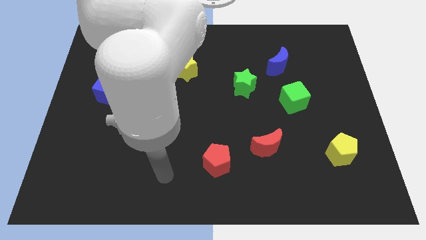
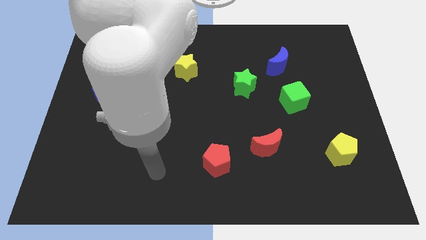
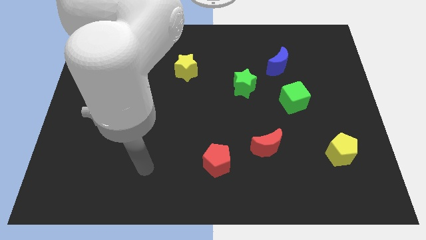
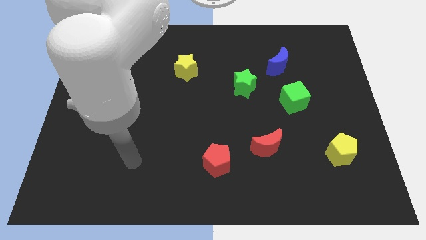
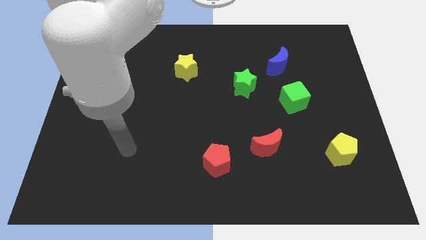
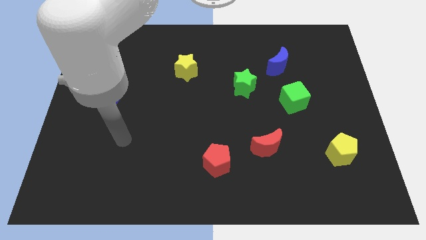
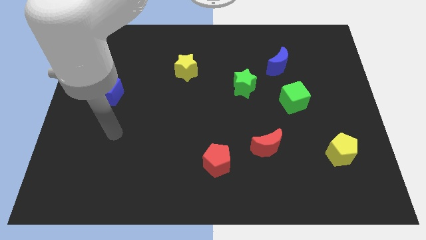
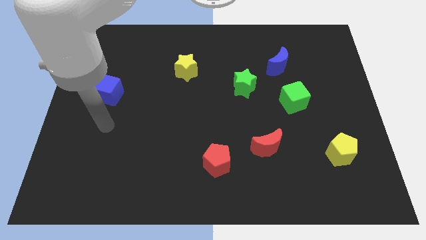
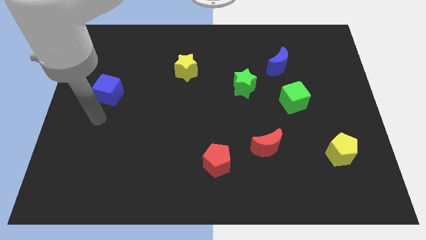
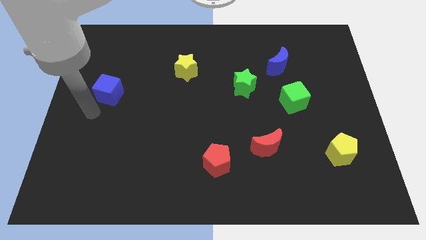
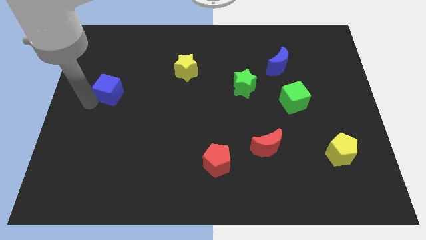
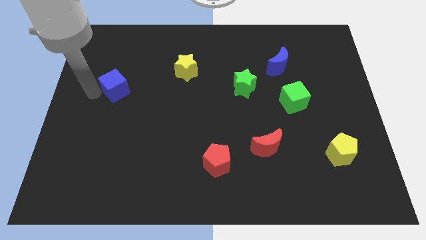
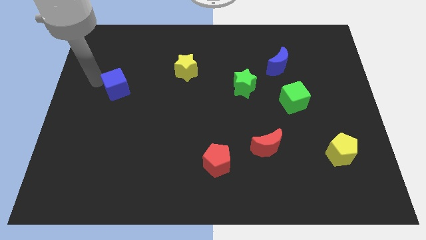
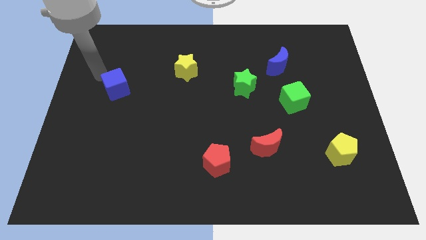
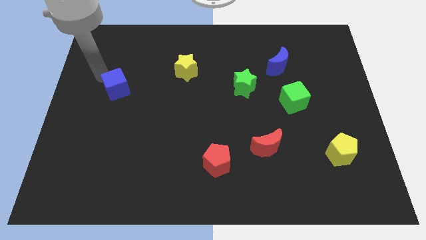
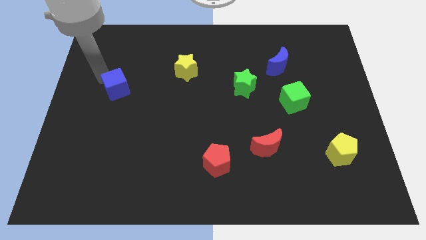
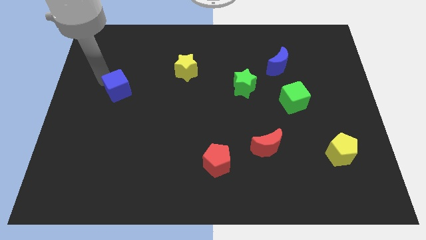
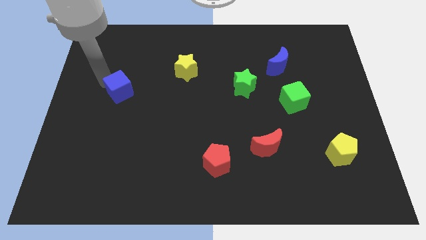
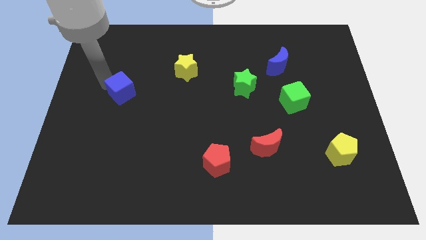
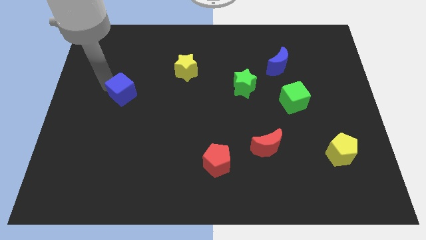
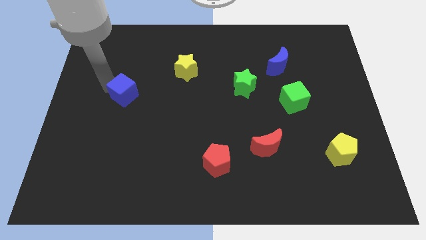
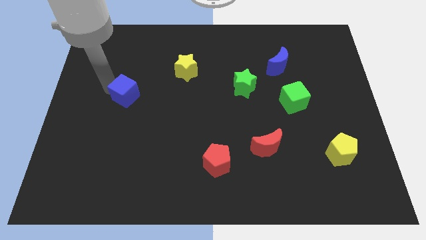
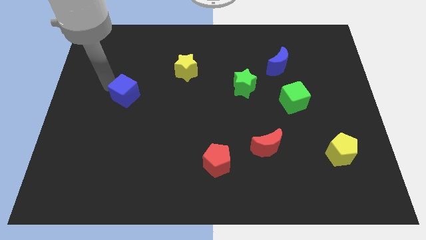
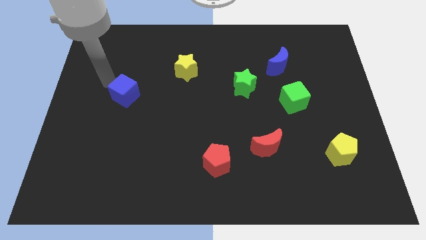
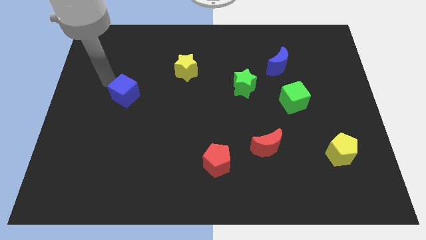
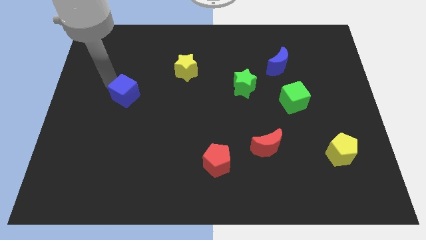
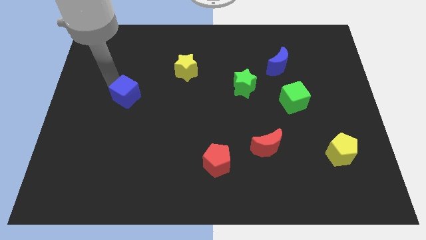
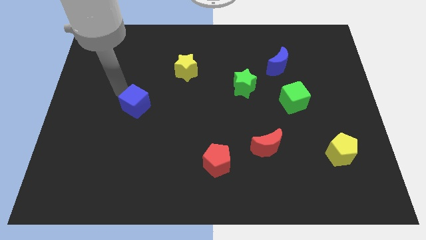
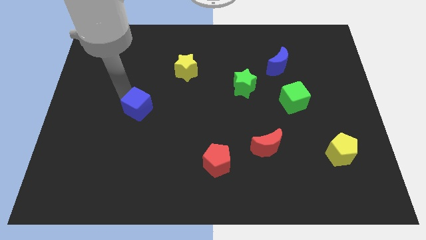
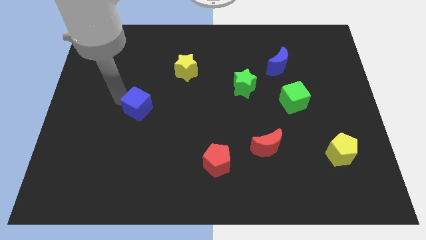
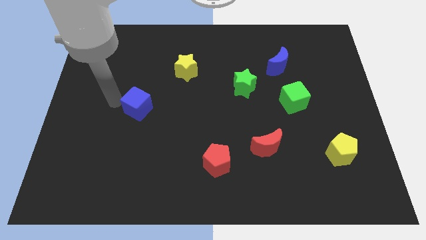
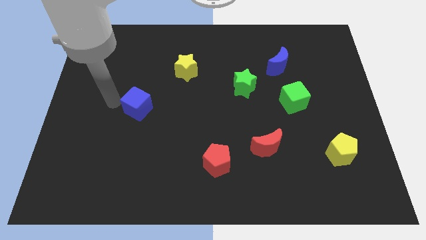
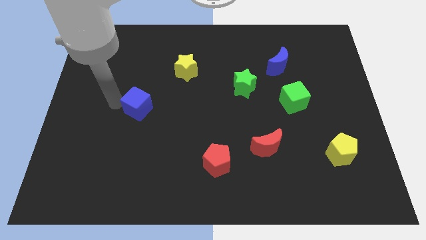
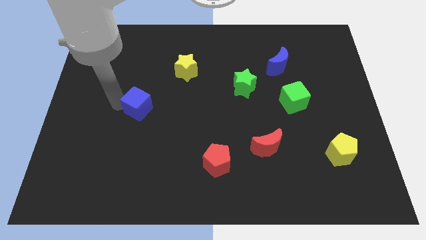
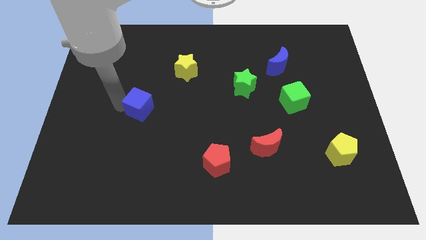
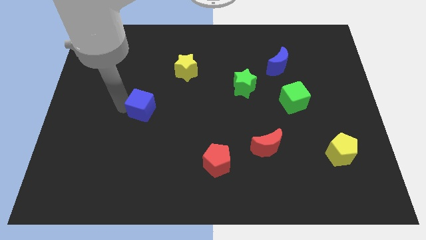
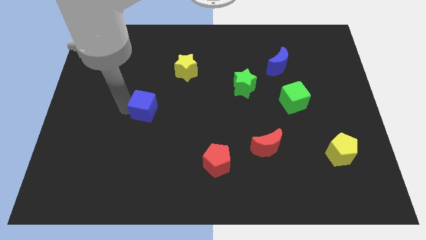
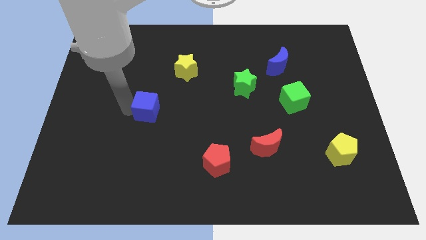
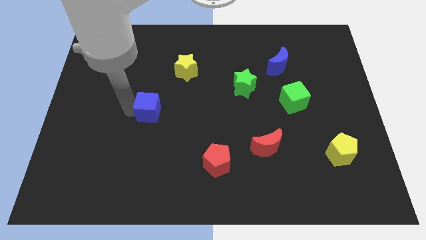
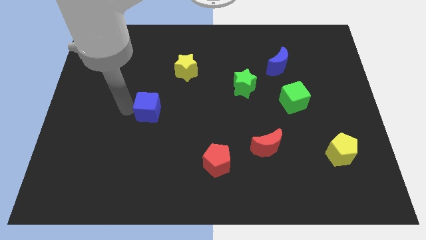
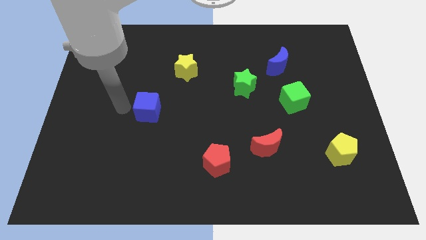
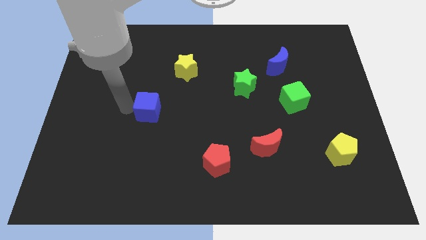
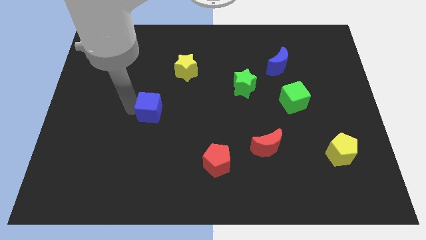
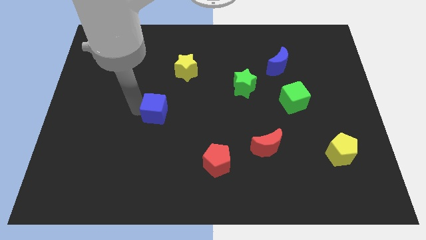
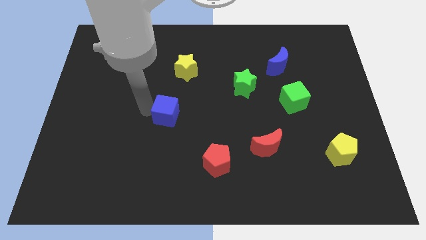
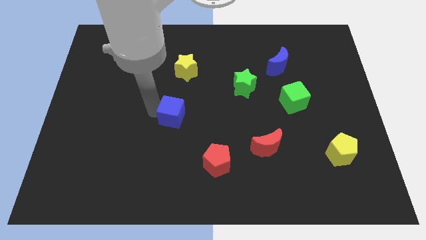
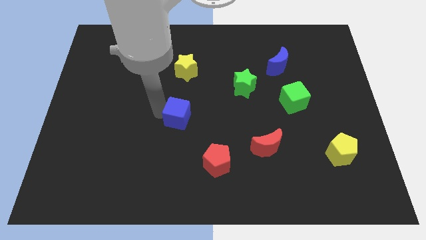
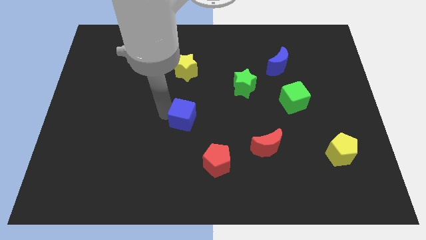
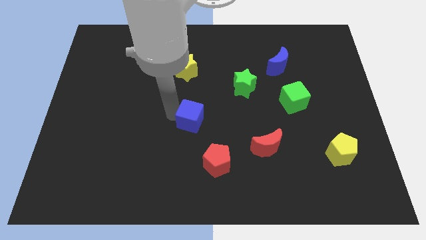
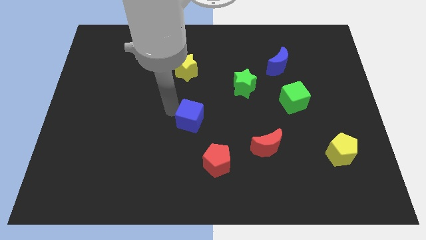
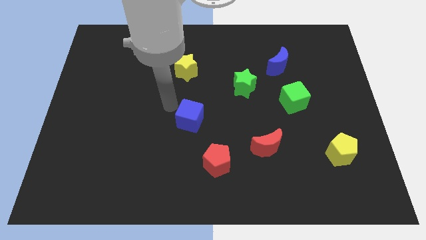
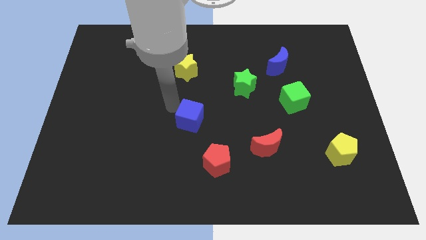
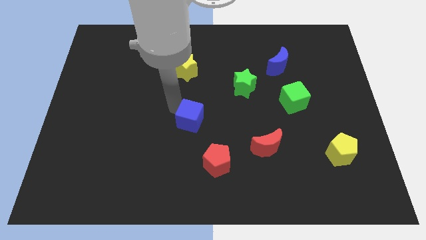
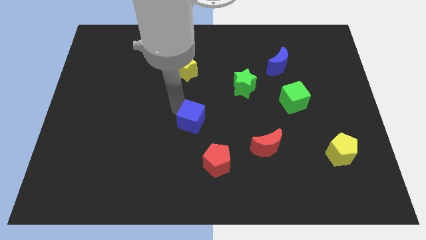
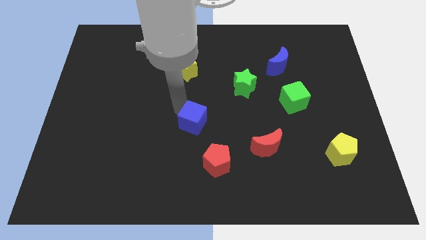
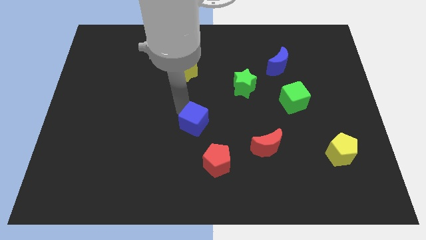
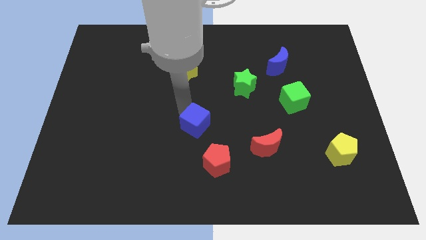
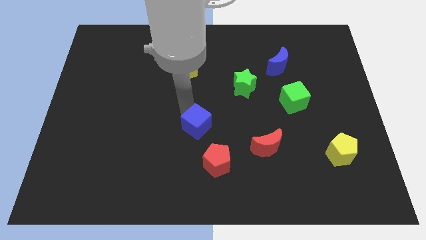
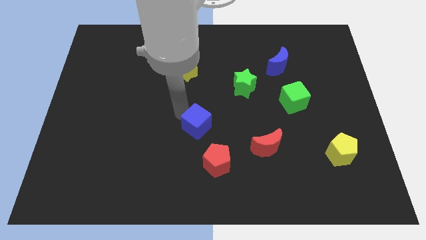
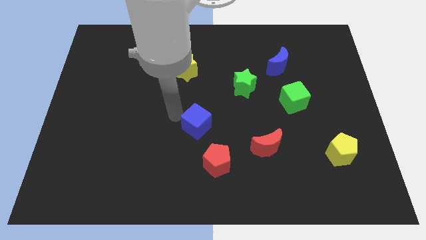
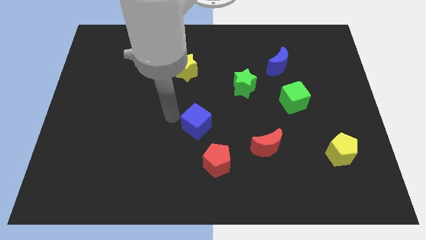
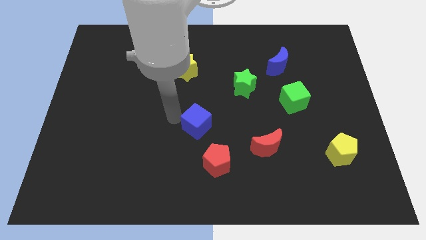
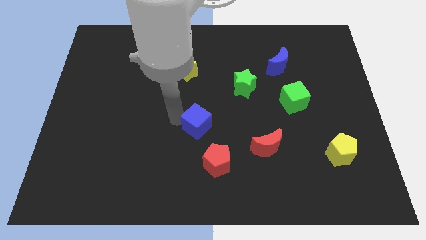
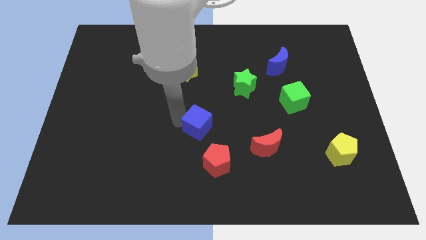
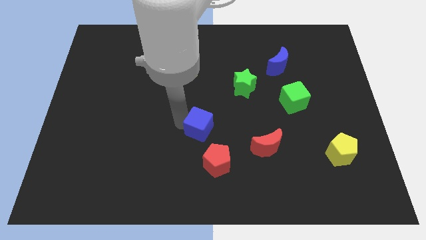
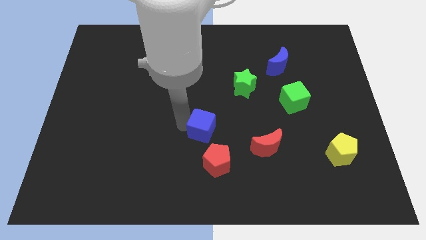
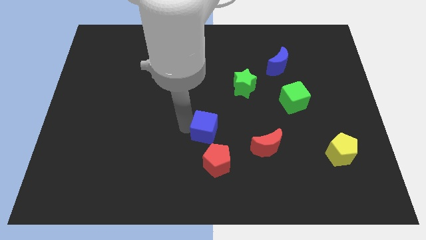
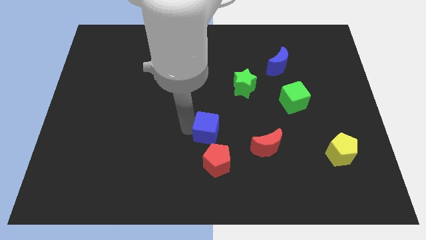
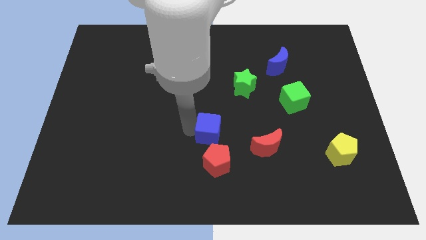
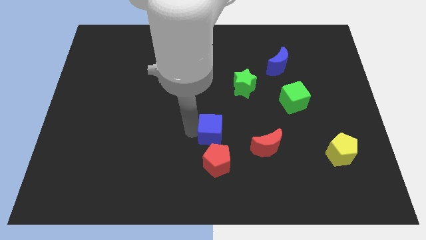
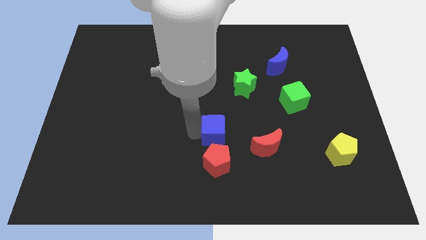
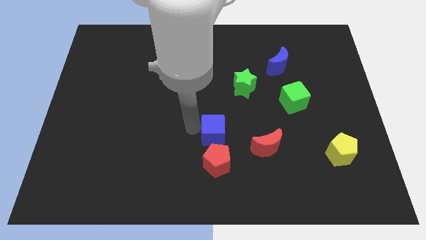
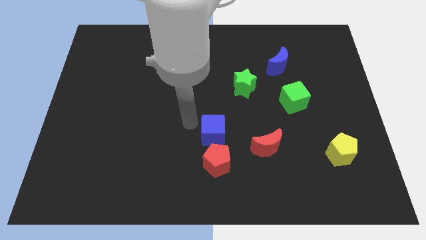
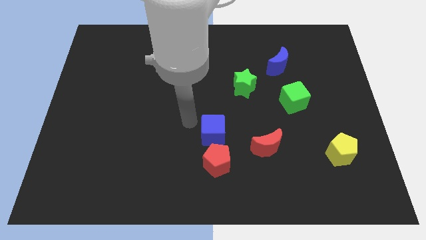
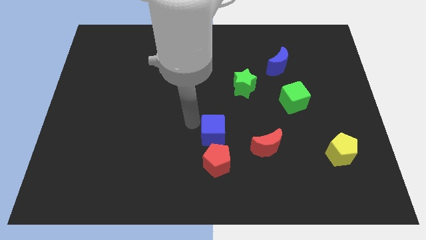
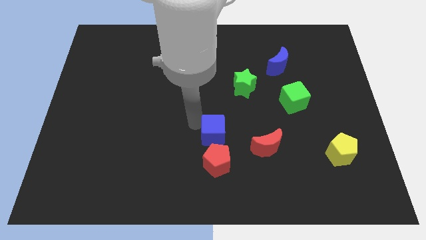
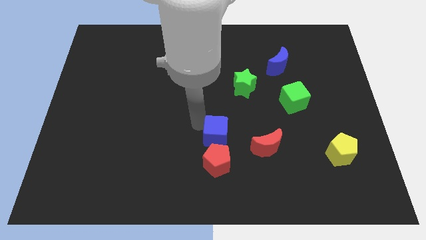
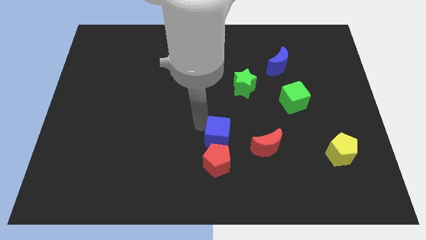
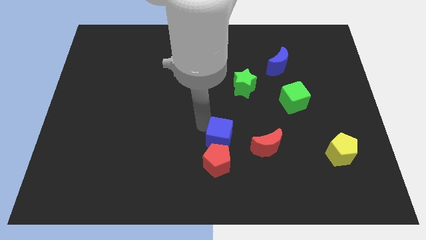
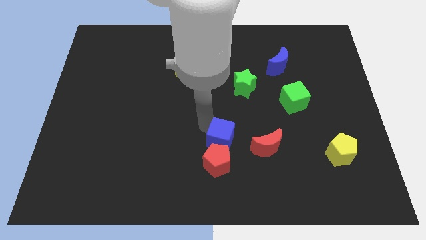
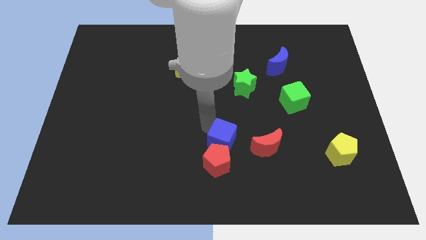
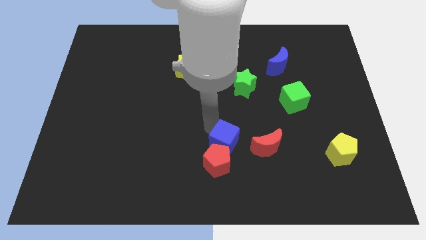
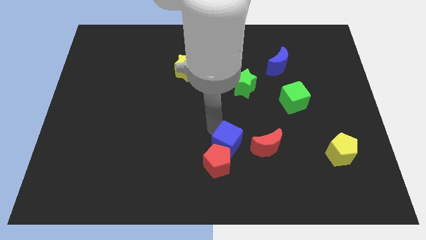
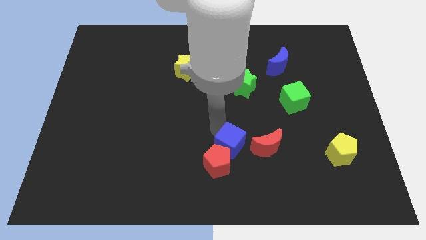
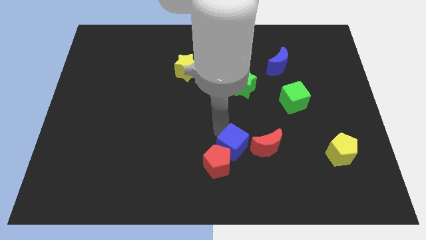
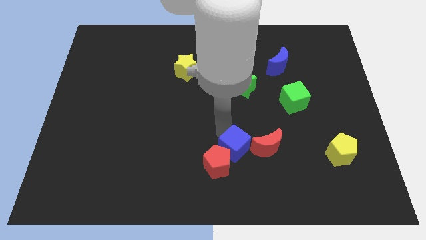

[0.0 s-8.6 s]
put the blue cube just right of the red pentagon
